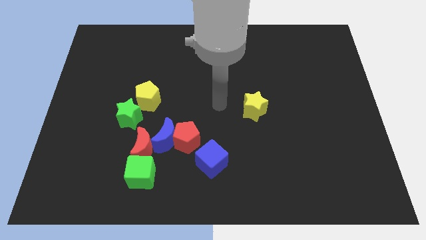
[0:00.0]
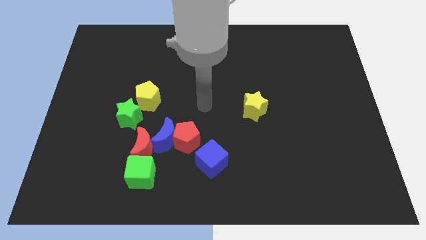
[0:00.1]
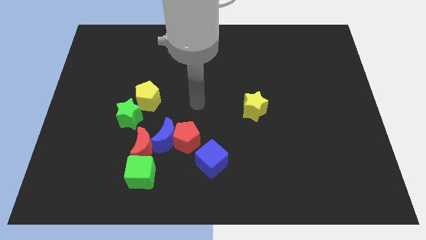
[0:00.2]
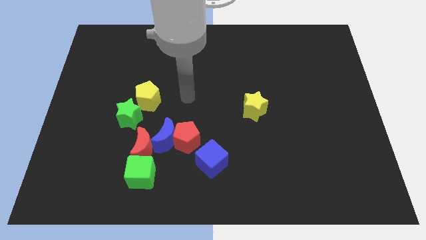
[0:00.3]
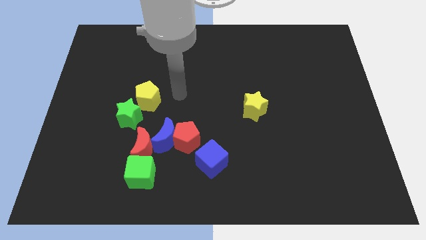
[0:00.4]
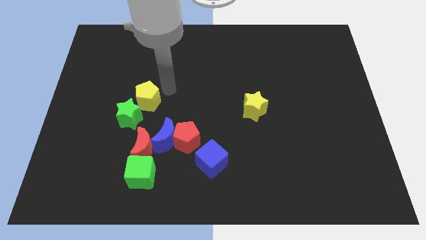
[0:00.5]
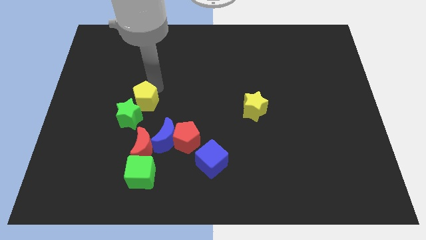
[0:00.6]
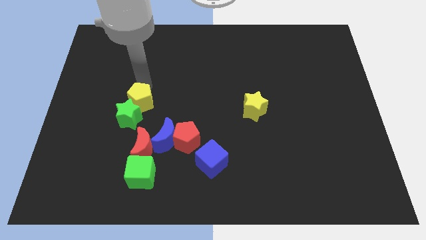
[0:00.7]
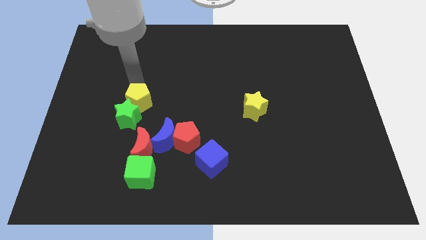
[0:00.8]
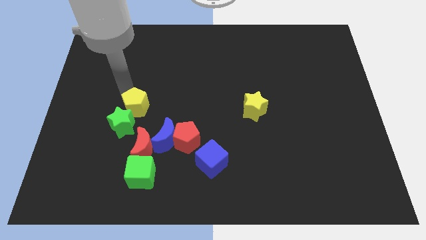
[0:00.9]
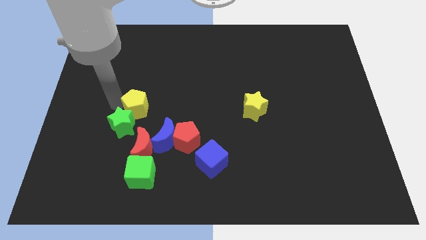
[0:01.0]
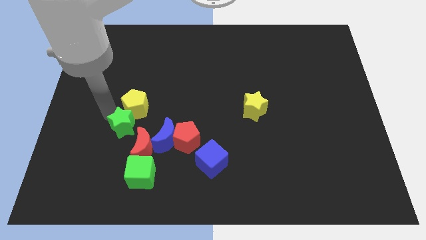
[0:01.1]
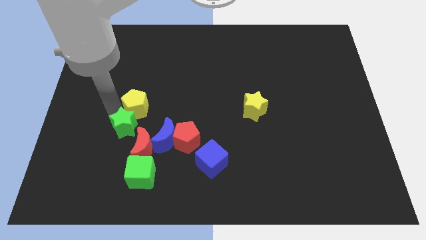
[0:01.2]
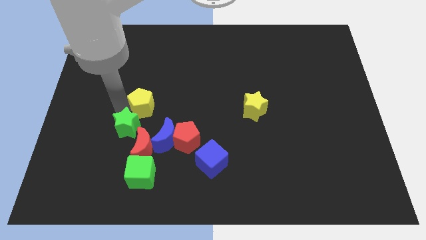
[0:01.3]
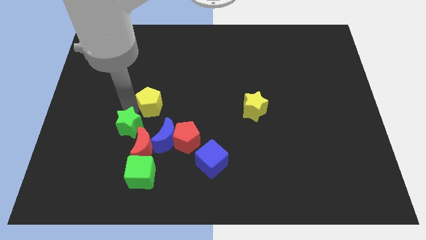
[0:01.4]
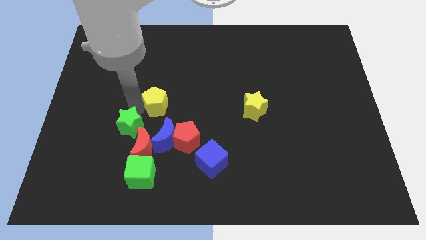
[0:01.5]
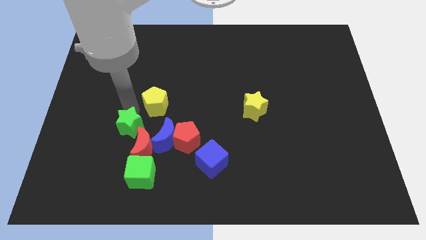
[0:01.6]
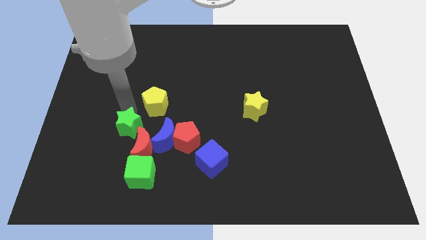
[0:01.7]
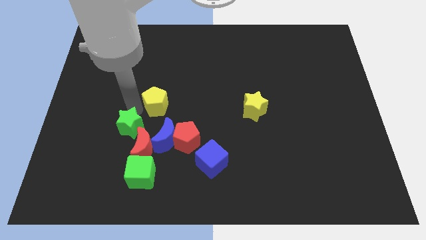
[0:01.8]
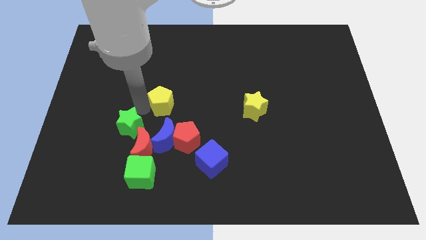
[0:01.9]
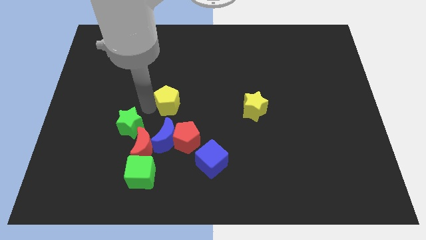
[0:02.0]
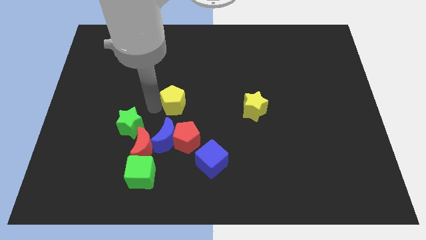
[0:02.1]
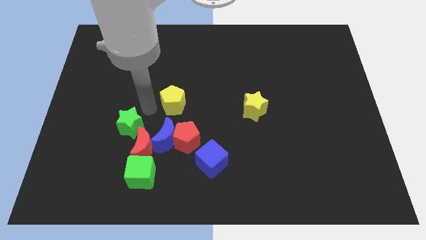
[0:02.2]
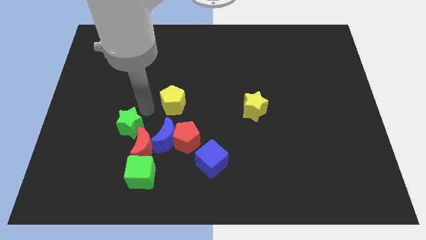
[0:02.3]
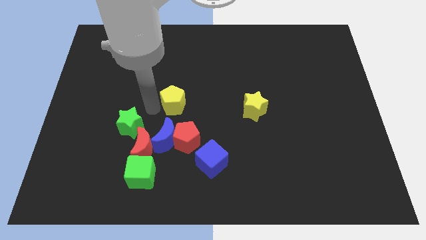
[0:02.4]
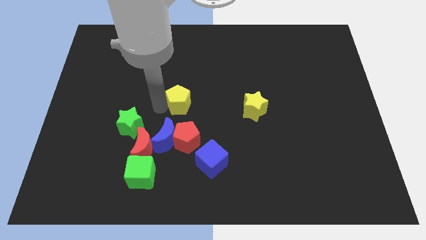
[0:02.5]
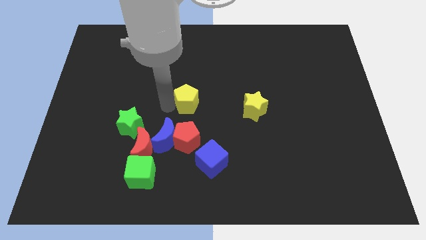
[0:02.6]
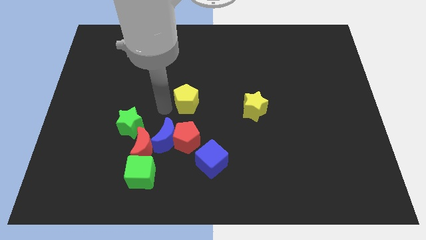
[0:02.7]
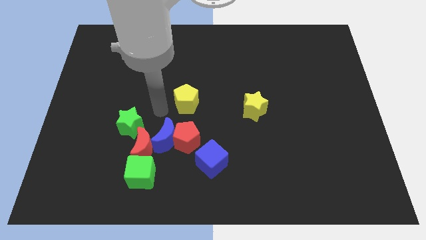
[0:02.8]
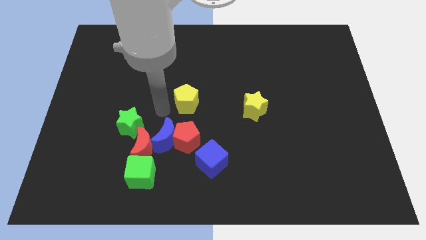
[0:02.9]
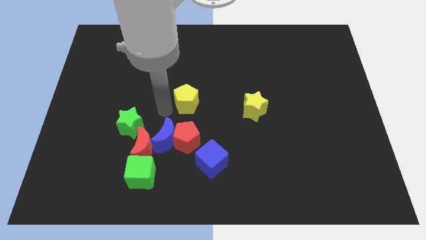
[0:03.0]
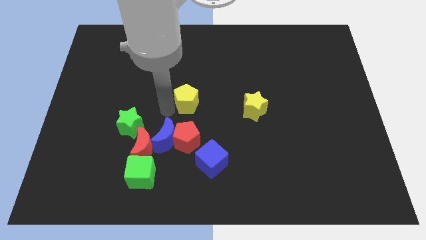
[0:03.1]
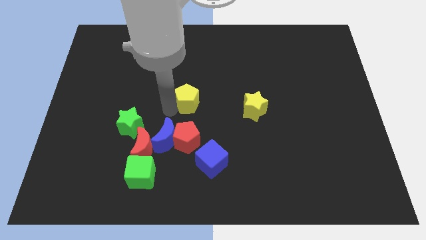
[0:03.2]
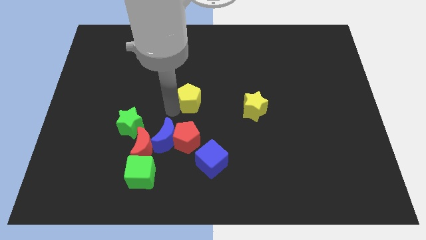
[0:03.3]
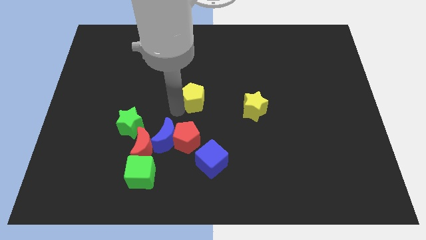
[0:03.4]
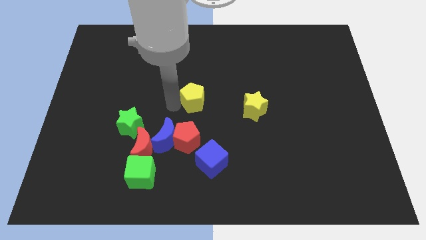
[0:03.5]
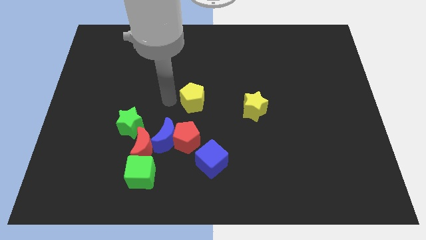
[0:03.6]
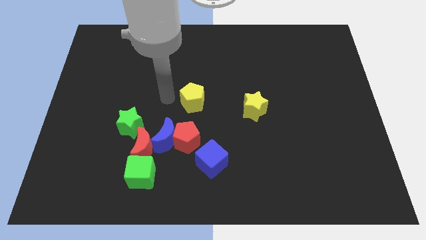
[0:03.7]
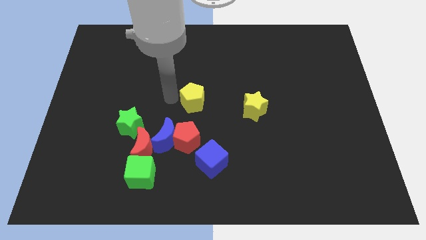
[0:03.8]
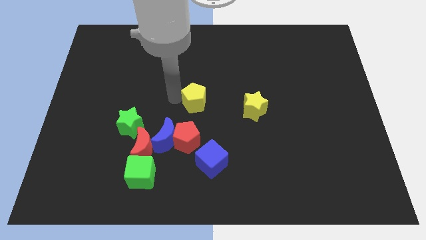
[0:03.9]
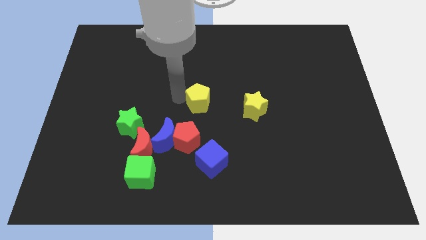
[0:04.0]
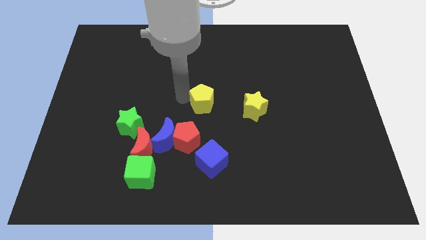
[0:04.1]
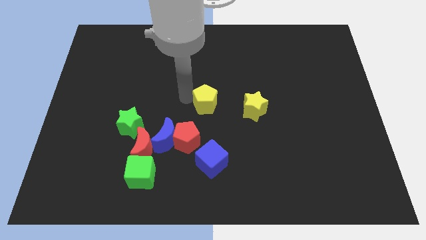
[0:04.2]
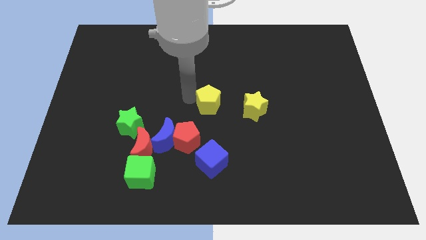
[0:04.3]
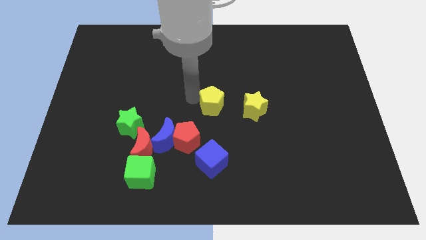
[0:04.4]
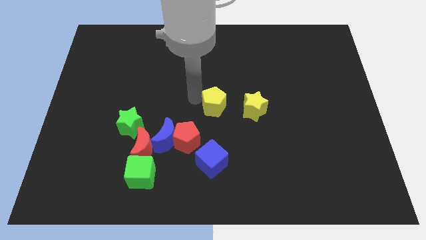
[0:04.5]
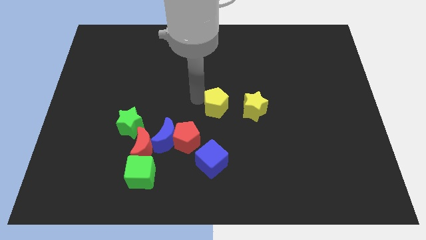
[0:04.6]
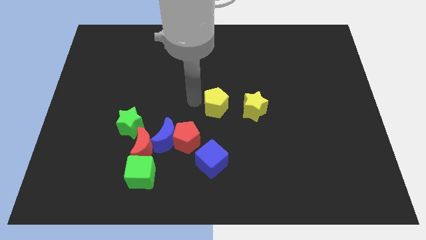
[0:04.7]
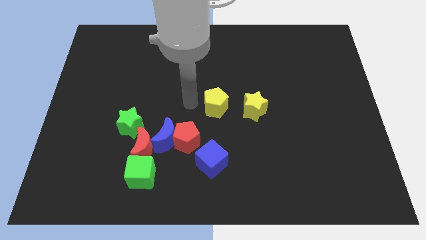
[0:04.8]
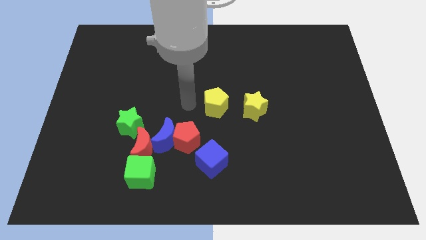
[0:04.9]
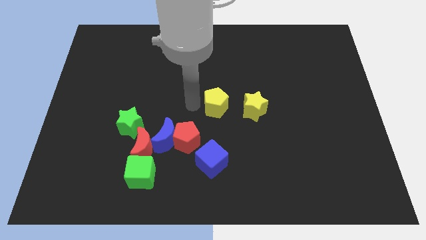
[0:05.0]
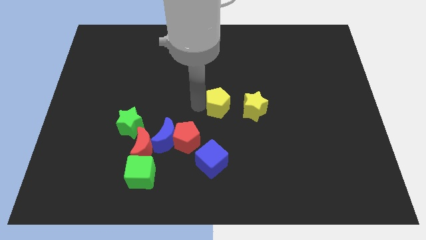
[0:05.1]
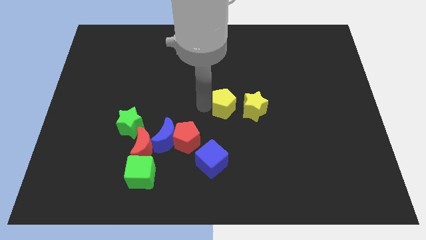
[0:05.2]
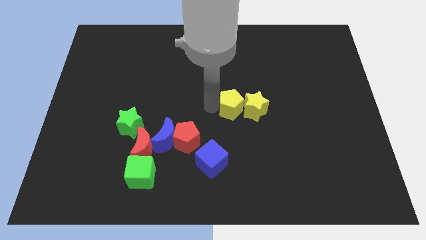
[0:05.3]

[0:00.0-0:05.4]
push the yellow pentagon next to the yellow star

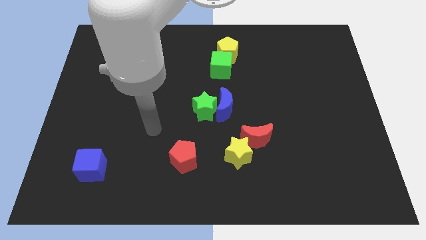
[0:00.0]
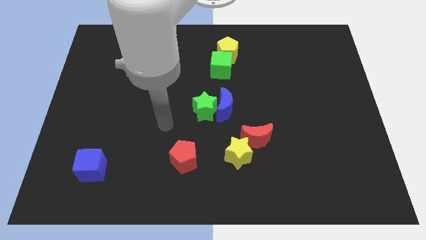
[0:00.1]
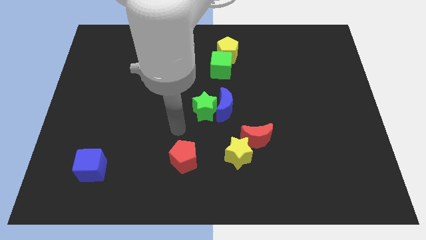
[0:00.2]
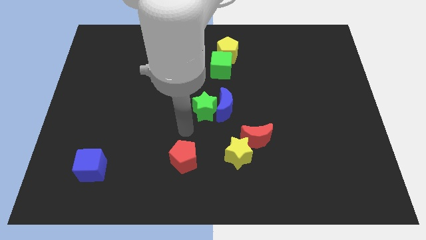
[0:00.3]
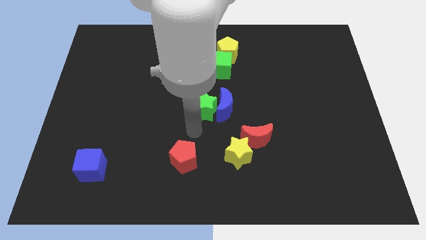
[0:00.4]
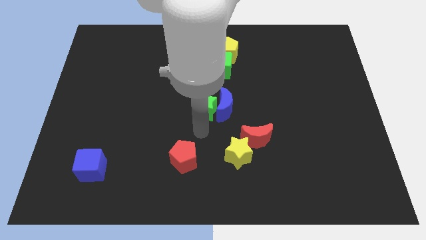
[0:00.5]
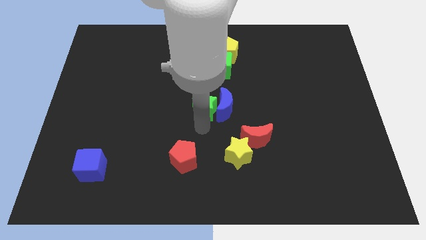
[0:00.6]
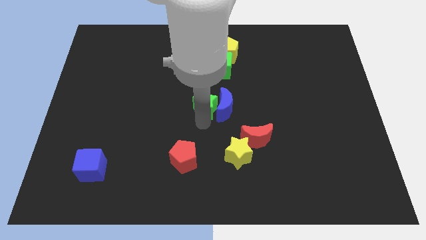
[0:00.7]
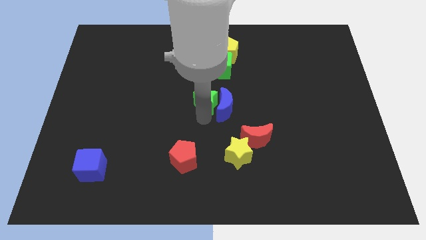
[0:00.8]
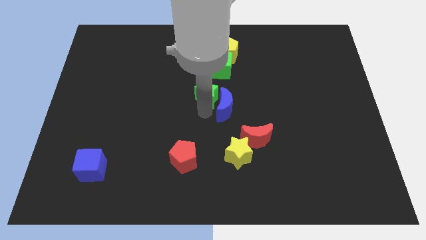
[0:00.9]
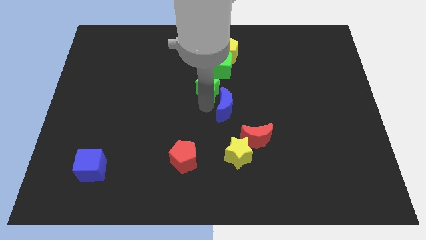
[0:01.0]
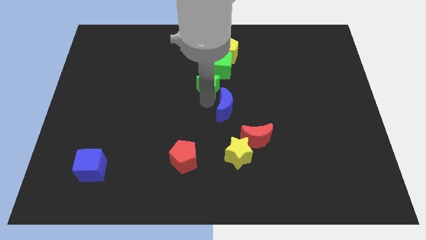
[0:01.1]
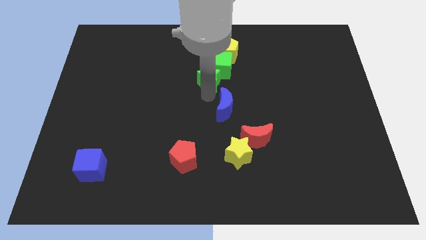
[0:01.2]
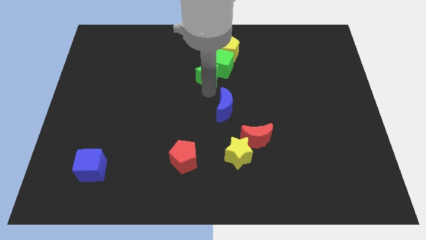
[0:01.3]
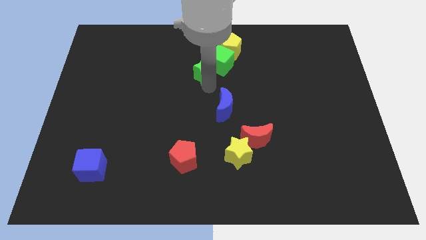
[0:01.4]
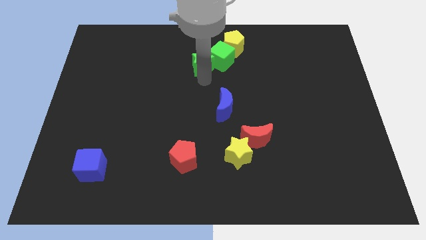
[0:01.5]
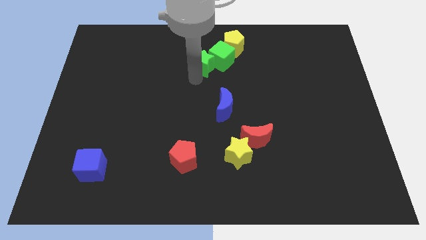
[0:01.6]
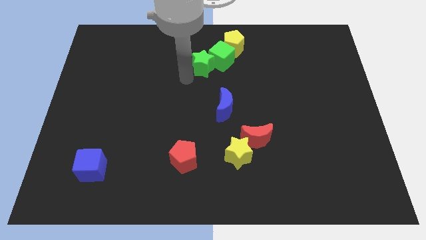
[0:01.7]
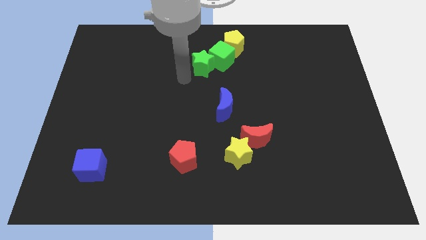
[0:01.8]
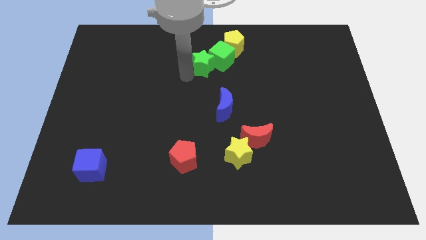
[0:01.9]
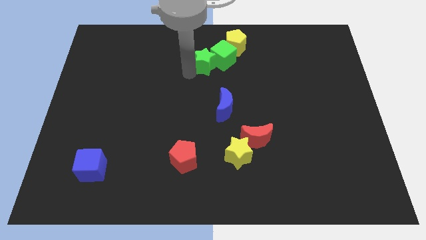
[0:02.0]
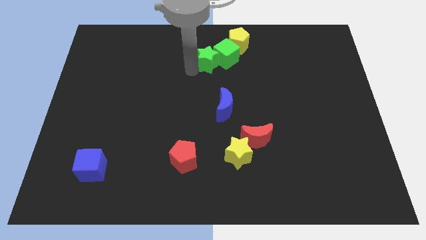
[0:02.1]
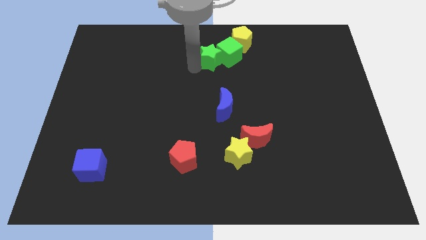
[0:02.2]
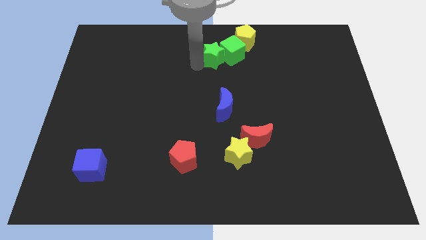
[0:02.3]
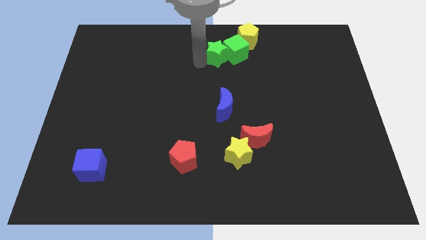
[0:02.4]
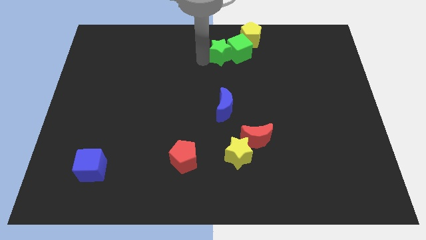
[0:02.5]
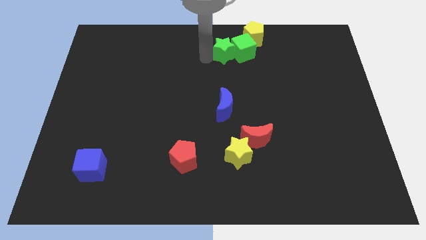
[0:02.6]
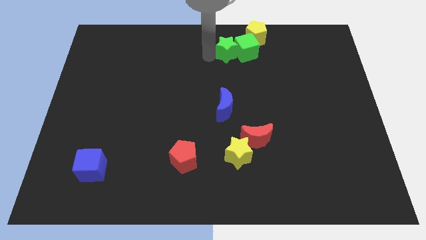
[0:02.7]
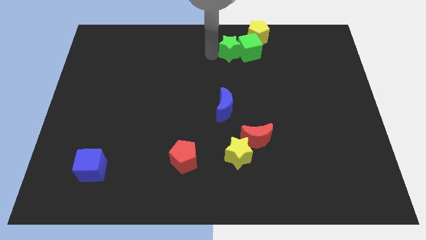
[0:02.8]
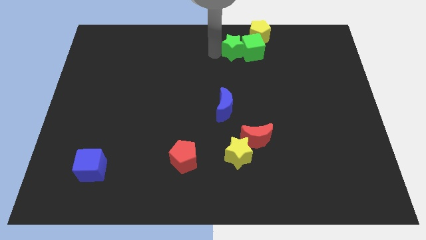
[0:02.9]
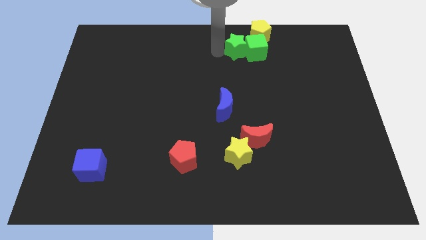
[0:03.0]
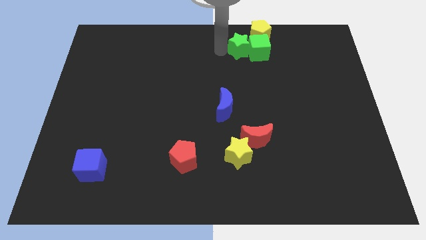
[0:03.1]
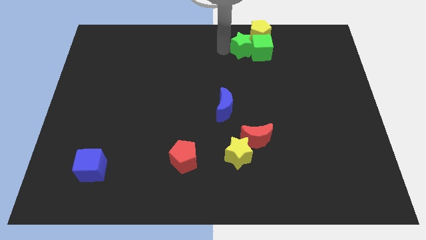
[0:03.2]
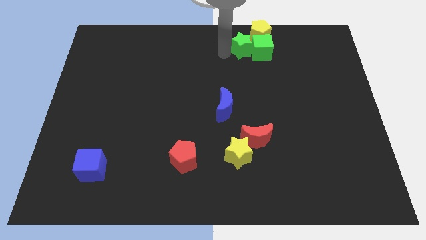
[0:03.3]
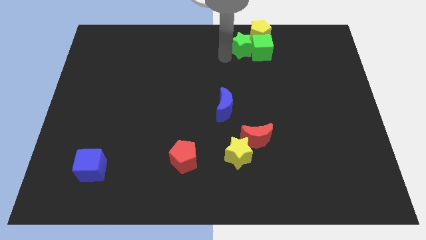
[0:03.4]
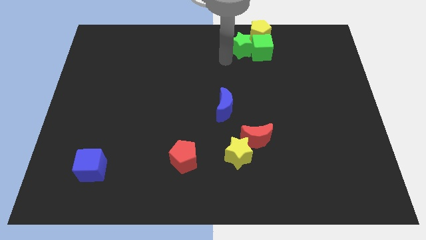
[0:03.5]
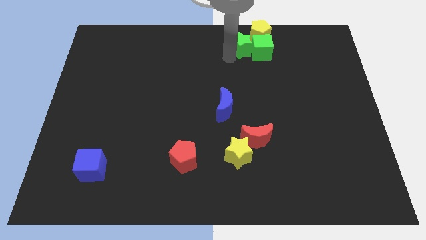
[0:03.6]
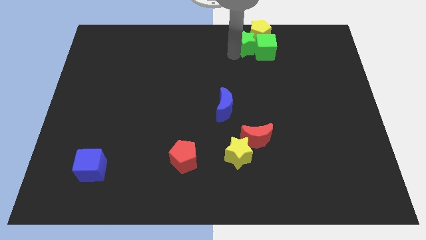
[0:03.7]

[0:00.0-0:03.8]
put the green star to the yellow pentagon
